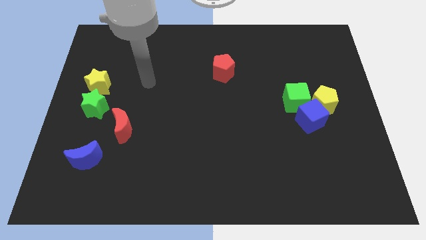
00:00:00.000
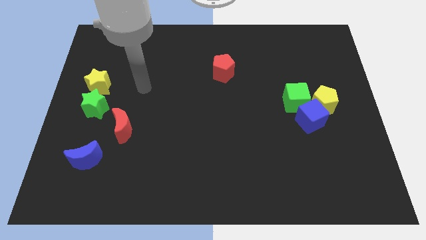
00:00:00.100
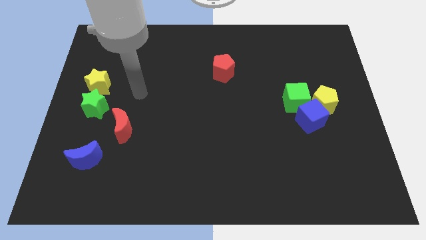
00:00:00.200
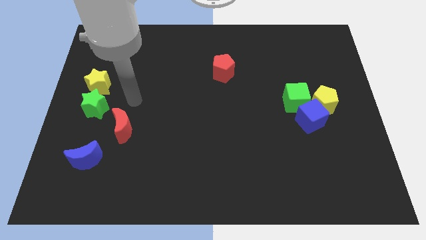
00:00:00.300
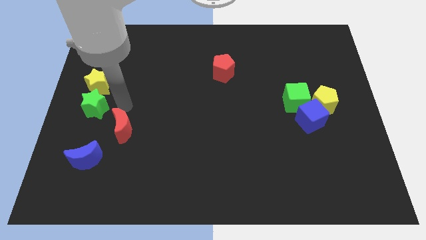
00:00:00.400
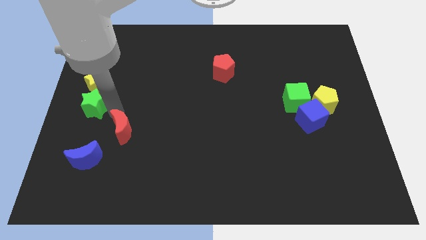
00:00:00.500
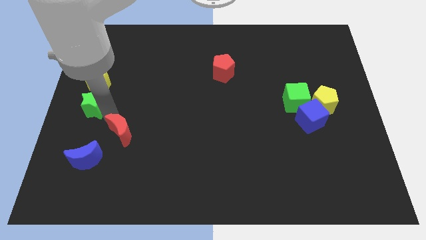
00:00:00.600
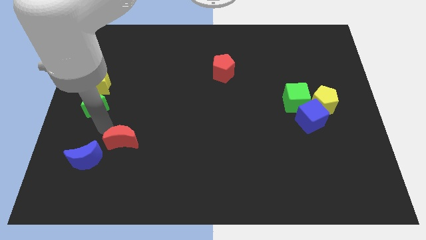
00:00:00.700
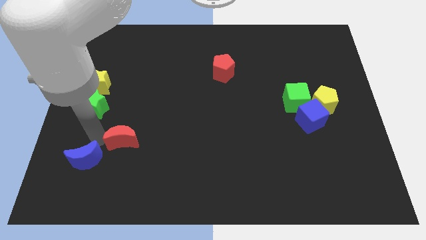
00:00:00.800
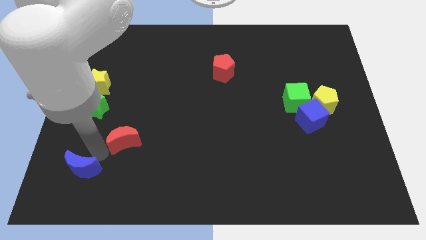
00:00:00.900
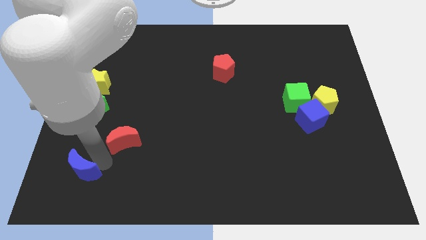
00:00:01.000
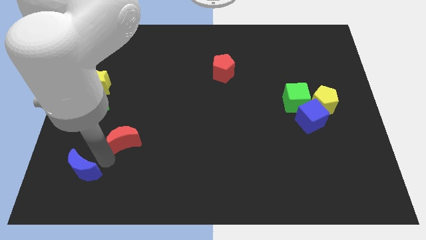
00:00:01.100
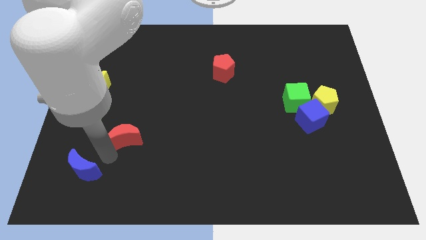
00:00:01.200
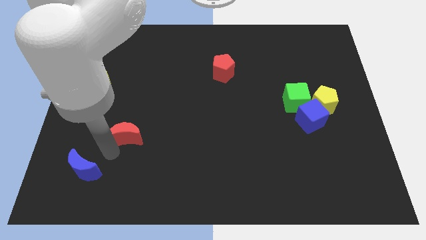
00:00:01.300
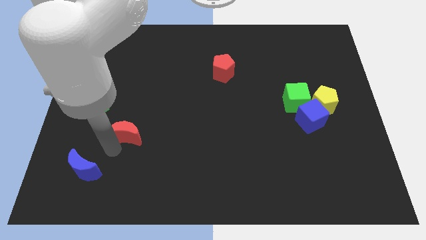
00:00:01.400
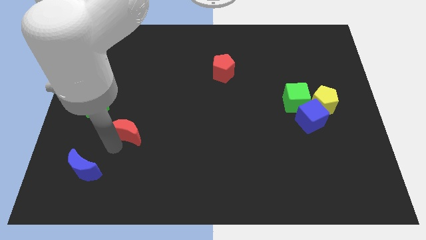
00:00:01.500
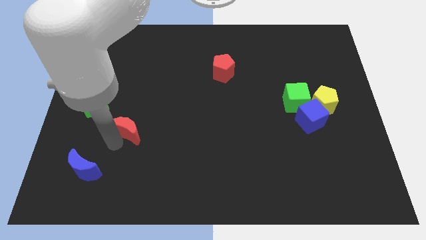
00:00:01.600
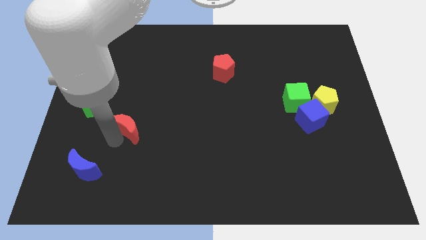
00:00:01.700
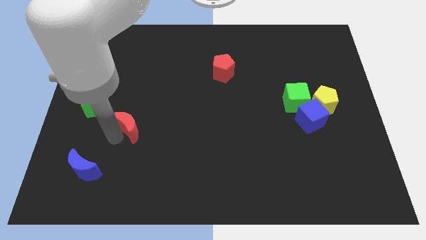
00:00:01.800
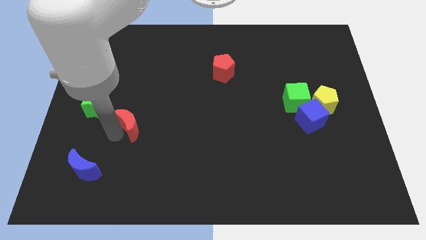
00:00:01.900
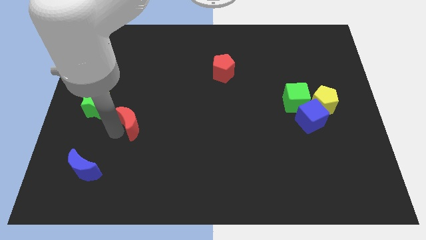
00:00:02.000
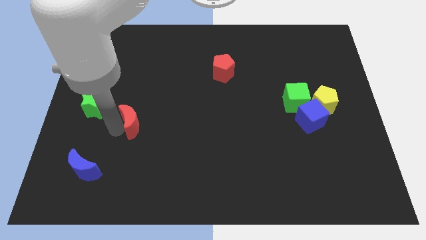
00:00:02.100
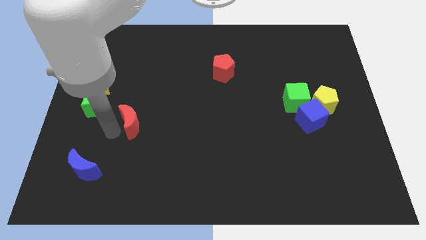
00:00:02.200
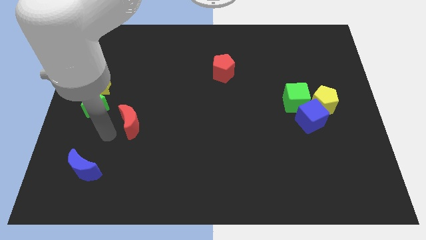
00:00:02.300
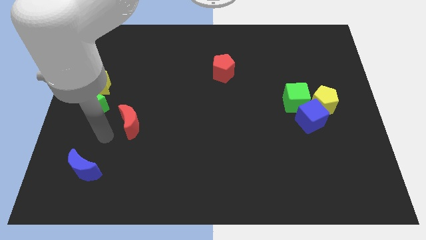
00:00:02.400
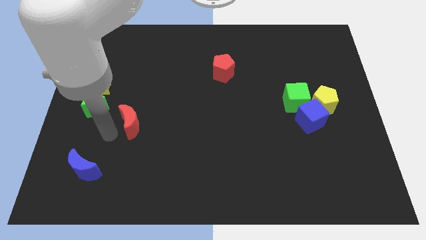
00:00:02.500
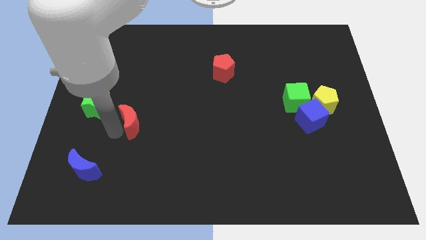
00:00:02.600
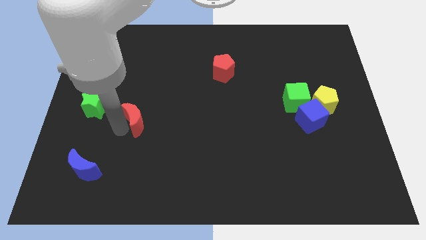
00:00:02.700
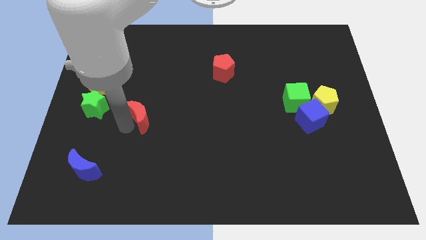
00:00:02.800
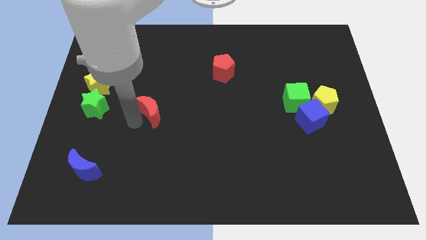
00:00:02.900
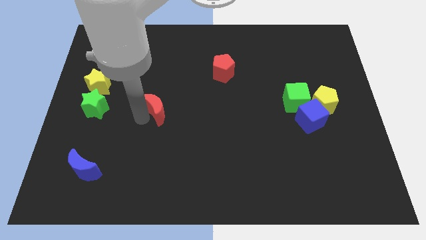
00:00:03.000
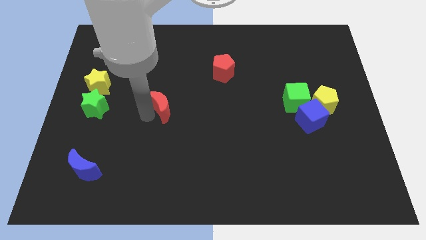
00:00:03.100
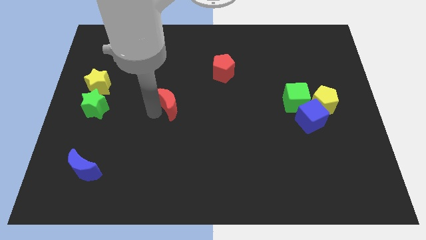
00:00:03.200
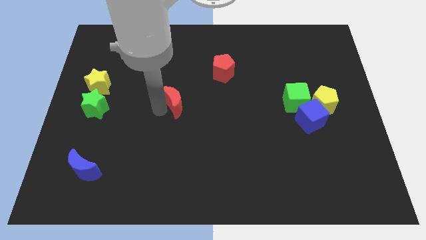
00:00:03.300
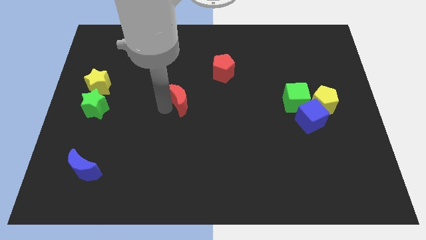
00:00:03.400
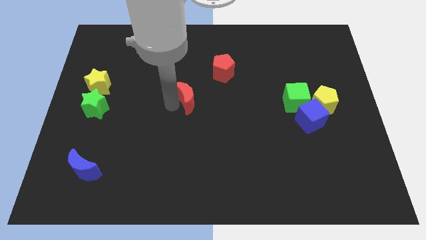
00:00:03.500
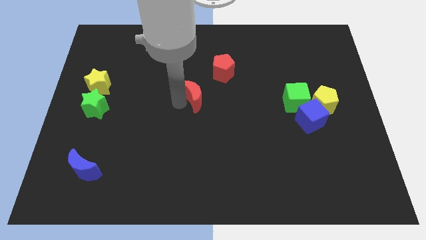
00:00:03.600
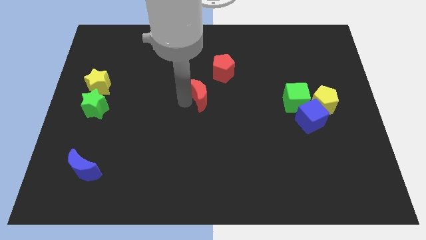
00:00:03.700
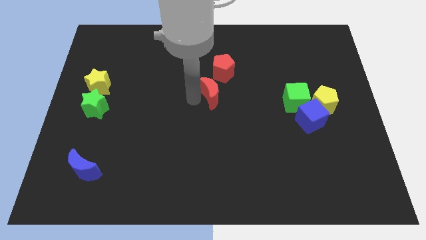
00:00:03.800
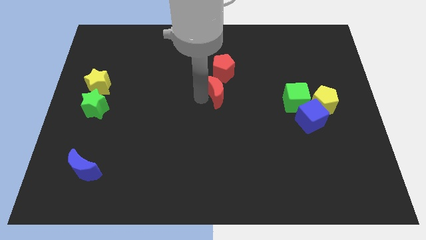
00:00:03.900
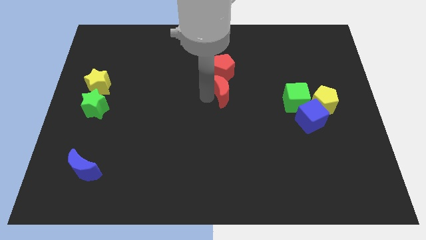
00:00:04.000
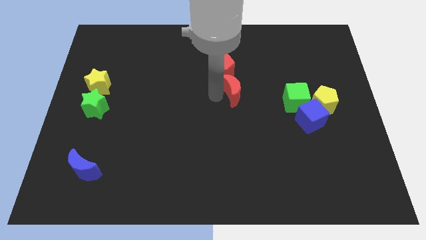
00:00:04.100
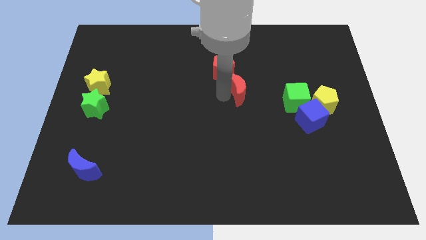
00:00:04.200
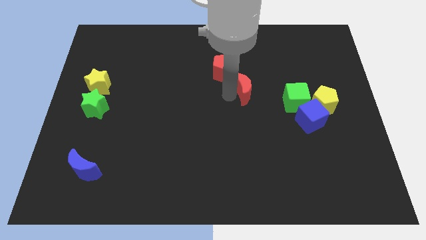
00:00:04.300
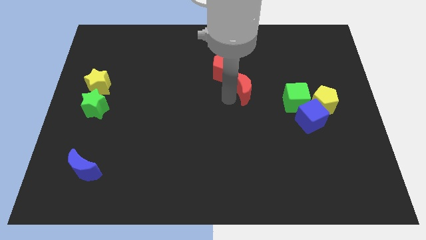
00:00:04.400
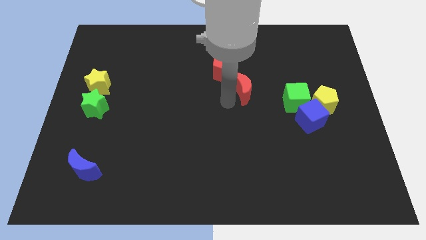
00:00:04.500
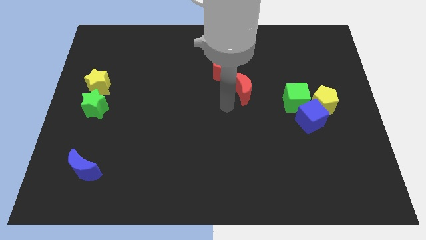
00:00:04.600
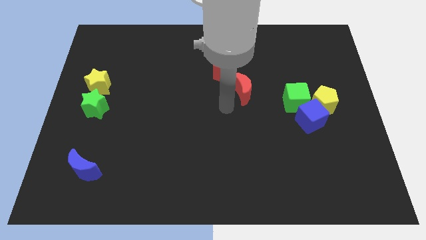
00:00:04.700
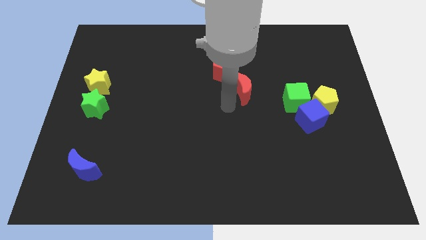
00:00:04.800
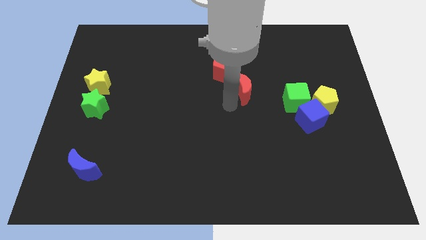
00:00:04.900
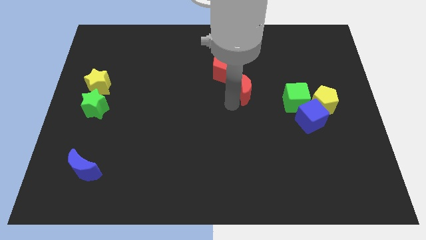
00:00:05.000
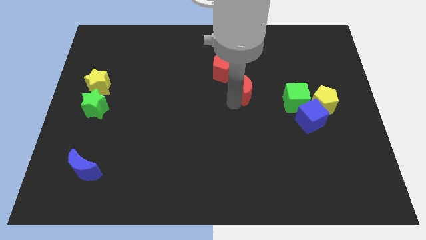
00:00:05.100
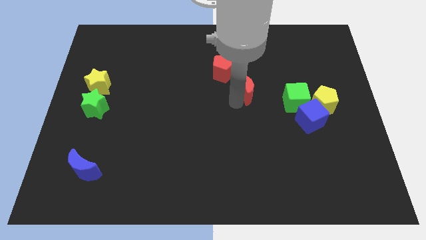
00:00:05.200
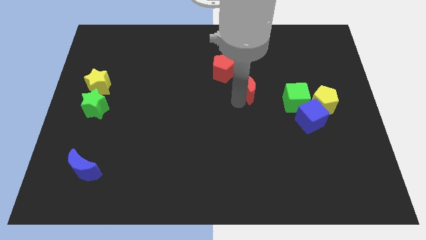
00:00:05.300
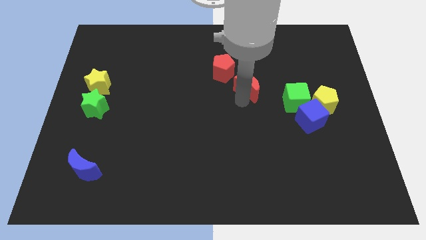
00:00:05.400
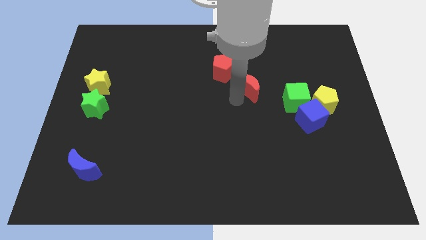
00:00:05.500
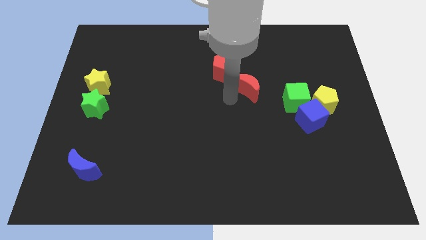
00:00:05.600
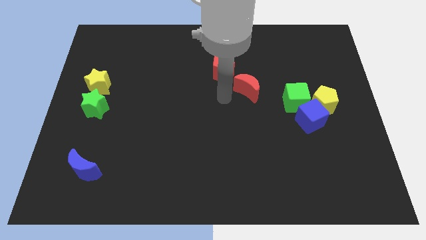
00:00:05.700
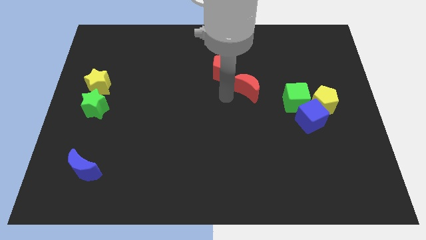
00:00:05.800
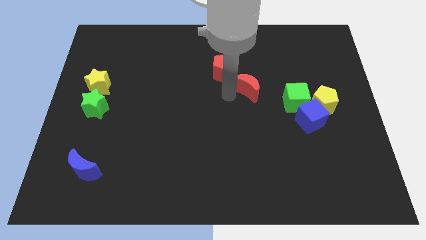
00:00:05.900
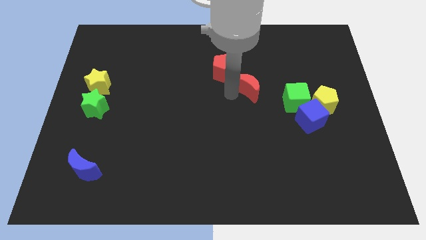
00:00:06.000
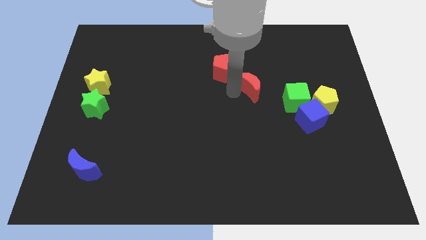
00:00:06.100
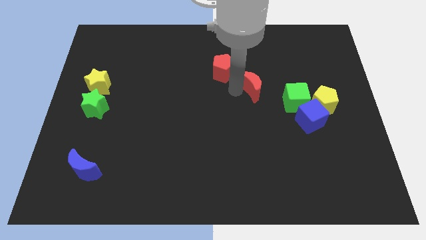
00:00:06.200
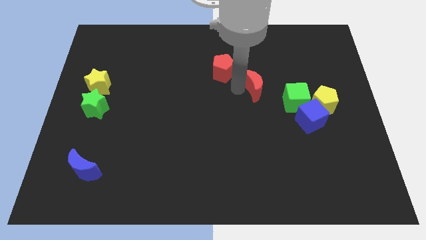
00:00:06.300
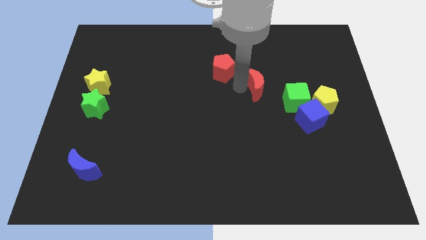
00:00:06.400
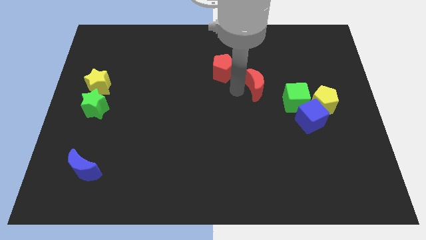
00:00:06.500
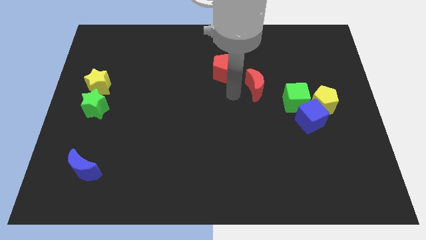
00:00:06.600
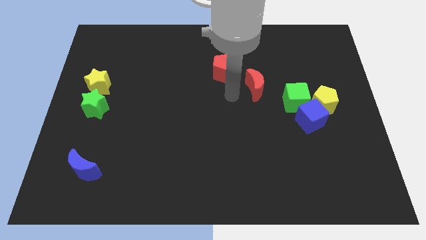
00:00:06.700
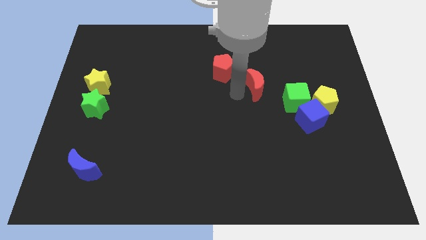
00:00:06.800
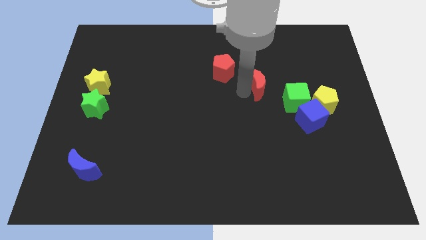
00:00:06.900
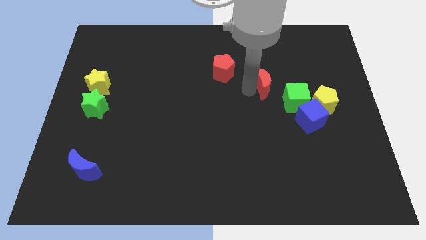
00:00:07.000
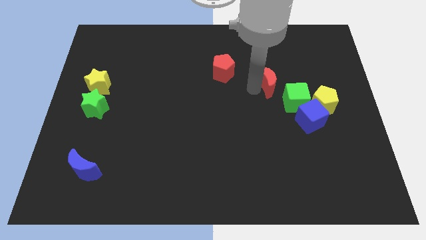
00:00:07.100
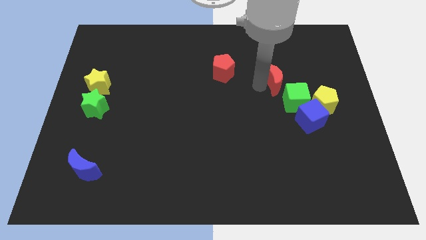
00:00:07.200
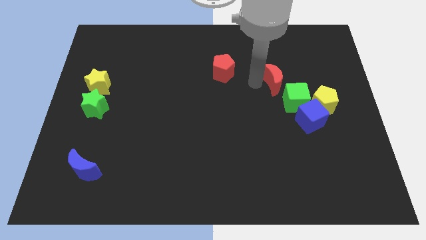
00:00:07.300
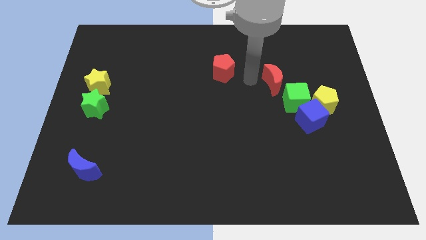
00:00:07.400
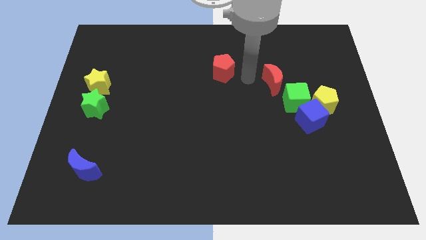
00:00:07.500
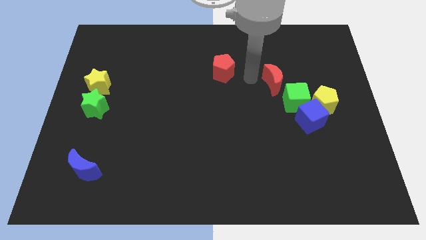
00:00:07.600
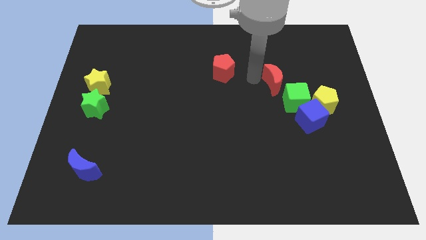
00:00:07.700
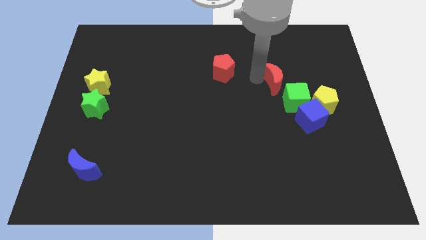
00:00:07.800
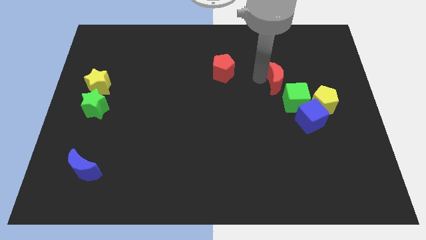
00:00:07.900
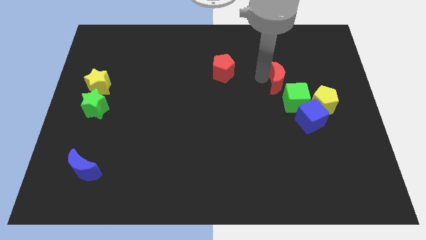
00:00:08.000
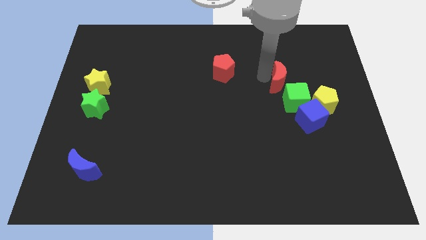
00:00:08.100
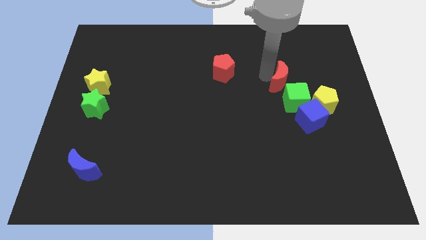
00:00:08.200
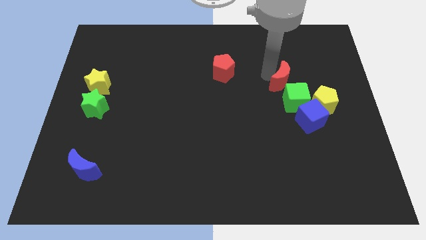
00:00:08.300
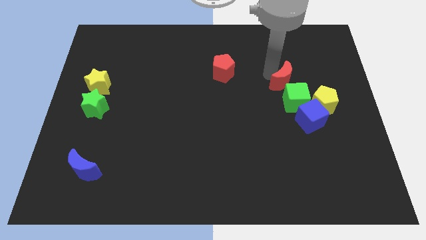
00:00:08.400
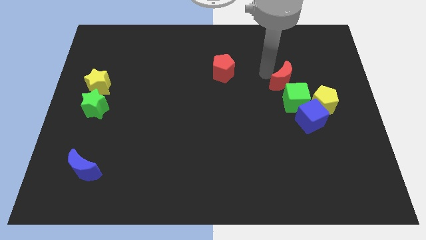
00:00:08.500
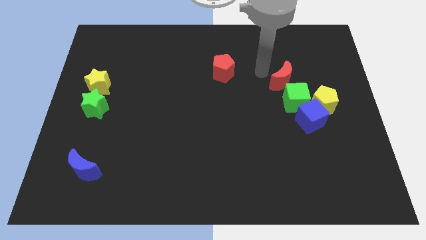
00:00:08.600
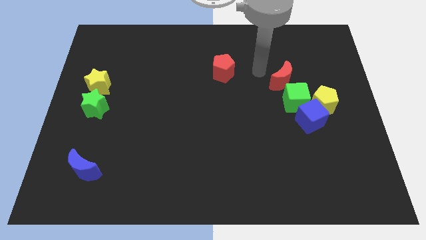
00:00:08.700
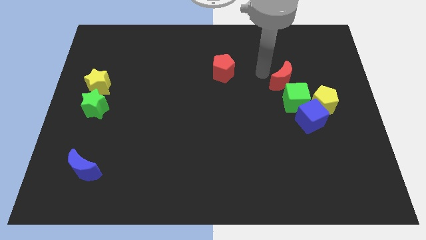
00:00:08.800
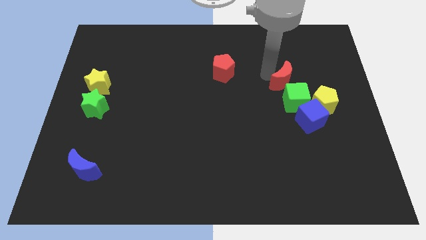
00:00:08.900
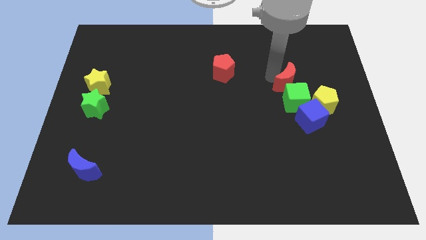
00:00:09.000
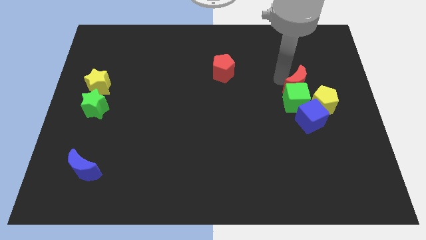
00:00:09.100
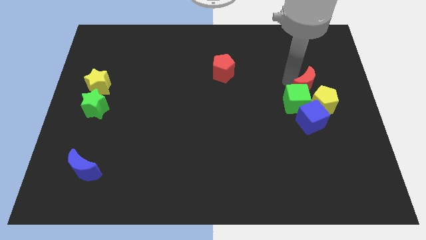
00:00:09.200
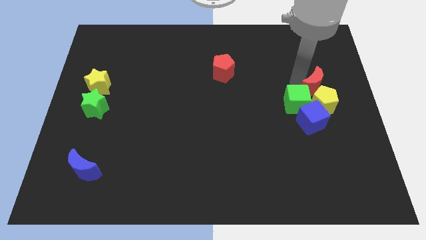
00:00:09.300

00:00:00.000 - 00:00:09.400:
put the red moon to the yellow pentagon
